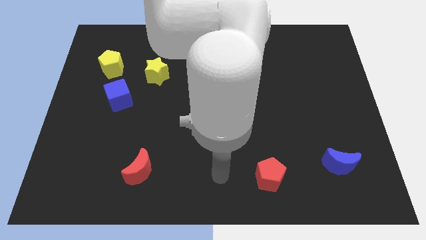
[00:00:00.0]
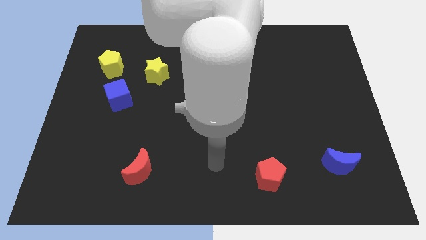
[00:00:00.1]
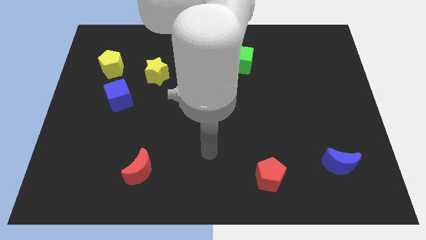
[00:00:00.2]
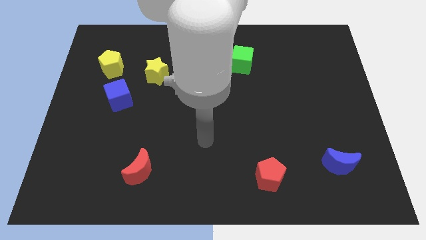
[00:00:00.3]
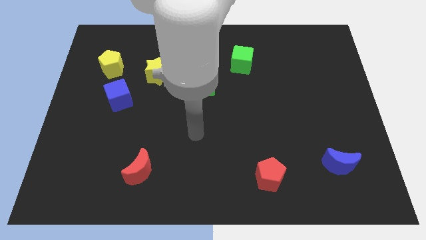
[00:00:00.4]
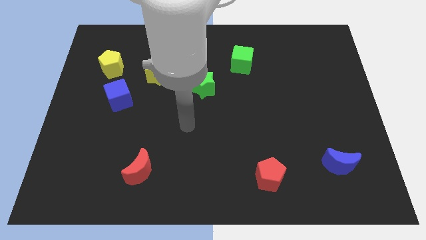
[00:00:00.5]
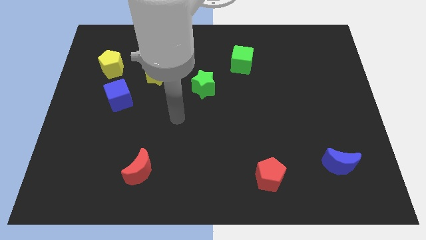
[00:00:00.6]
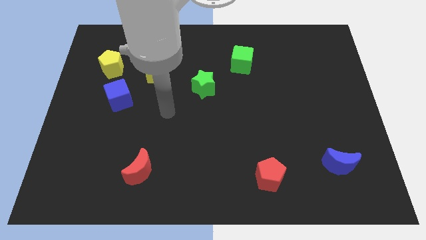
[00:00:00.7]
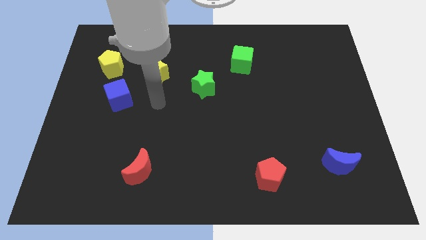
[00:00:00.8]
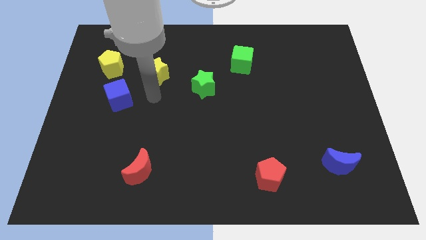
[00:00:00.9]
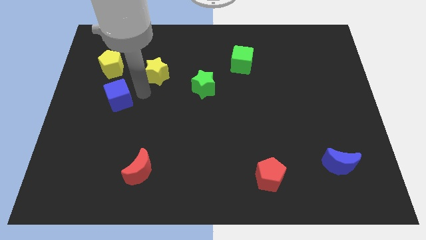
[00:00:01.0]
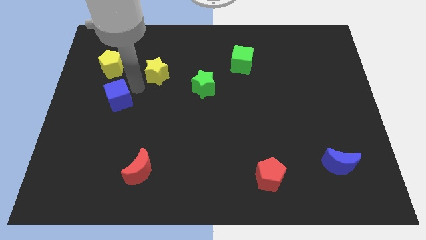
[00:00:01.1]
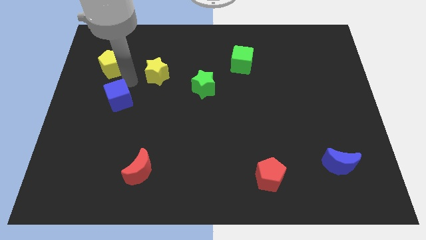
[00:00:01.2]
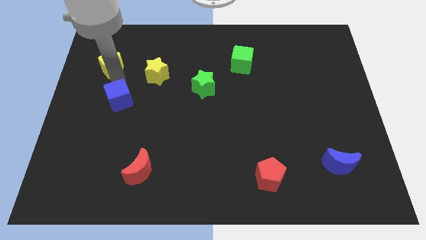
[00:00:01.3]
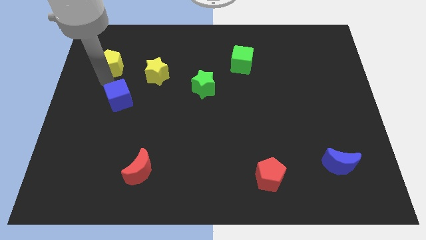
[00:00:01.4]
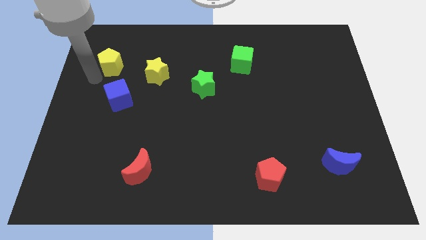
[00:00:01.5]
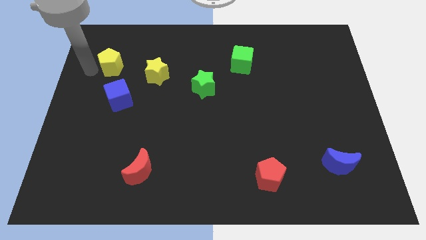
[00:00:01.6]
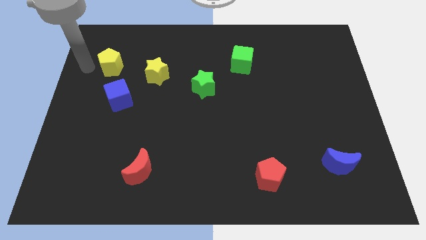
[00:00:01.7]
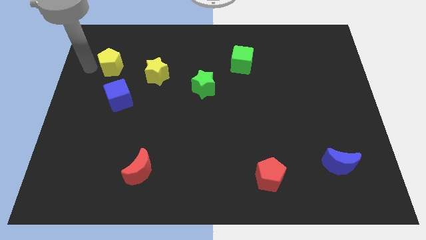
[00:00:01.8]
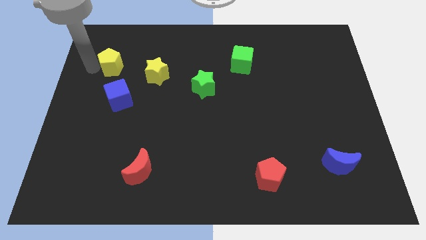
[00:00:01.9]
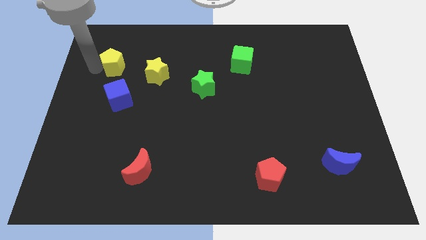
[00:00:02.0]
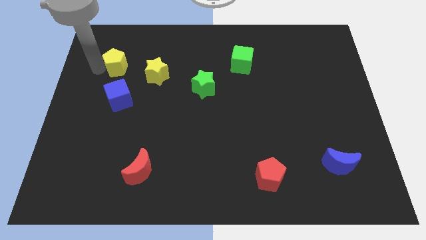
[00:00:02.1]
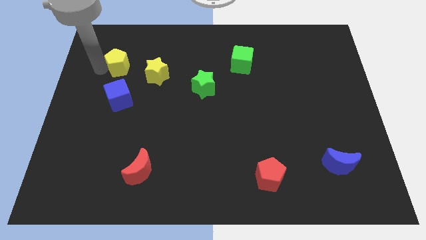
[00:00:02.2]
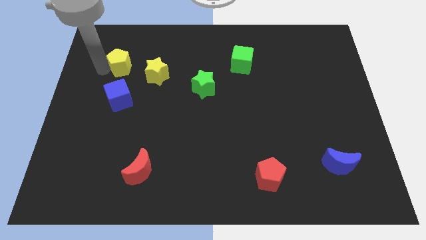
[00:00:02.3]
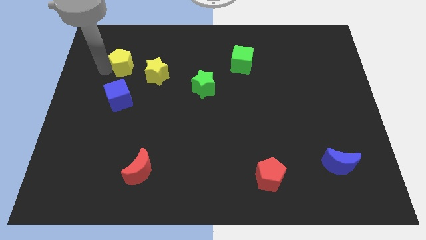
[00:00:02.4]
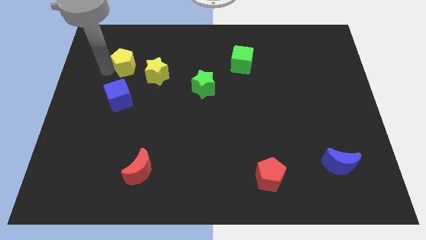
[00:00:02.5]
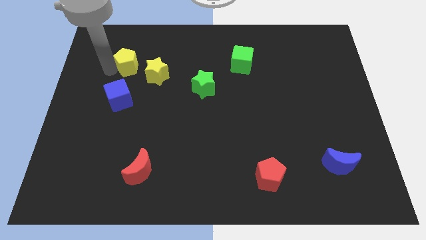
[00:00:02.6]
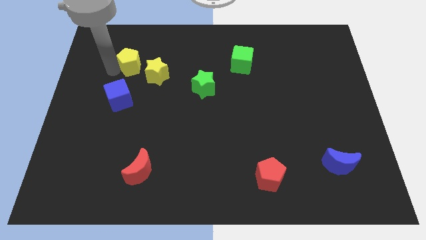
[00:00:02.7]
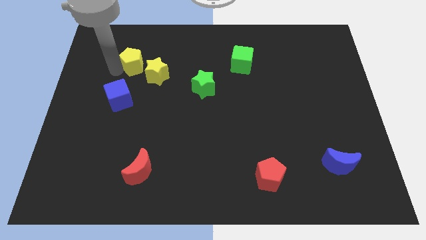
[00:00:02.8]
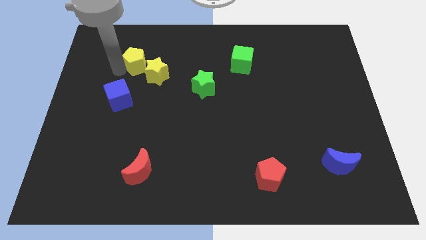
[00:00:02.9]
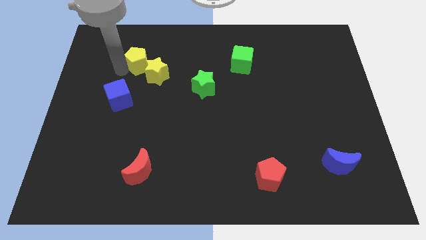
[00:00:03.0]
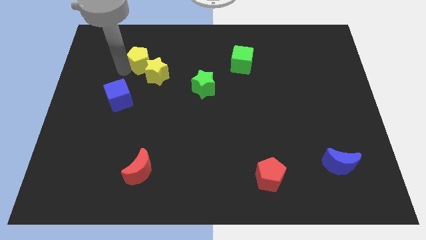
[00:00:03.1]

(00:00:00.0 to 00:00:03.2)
slide the yellow pentagon slightly to the right

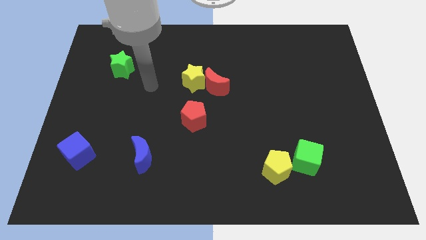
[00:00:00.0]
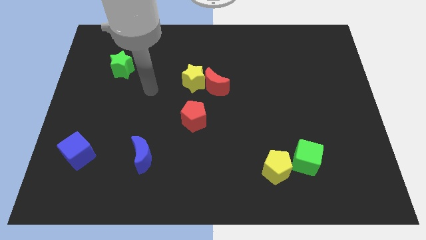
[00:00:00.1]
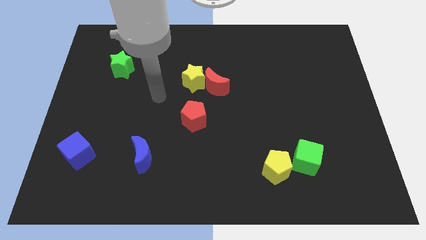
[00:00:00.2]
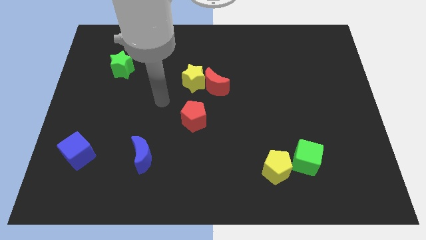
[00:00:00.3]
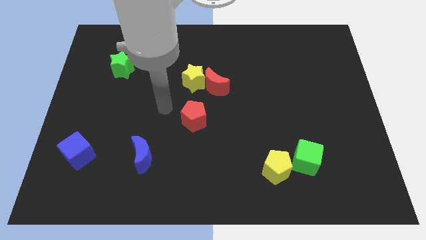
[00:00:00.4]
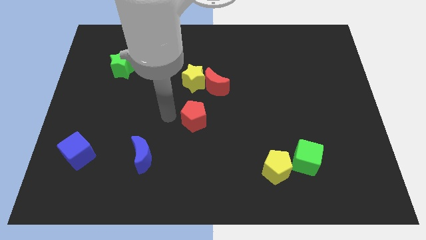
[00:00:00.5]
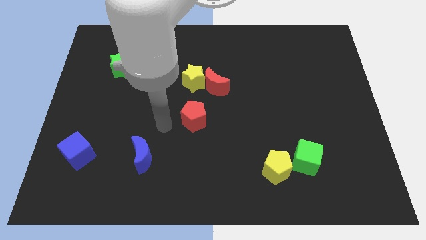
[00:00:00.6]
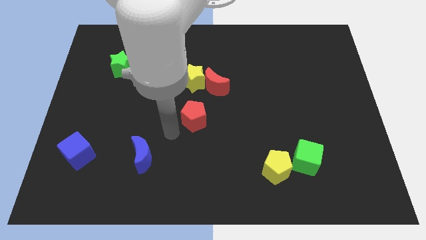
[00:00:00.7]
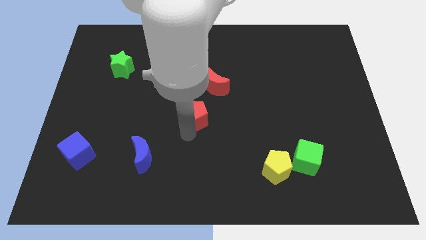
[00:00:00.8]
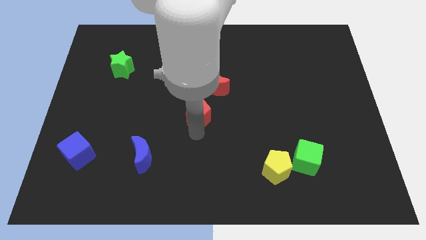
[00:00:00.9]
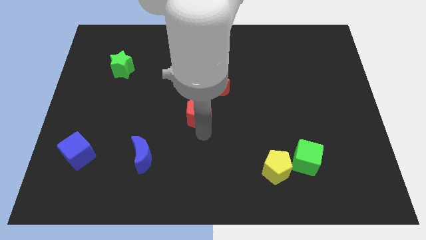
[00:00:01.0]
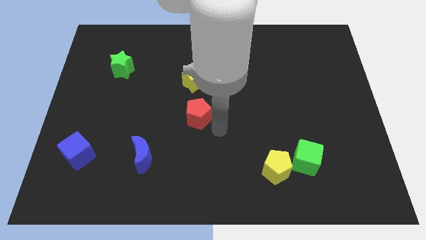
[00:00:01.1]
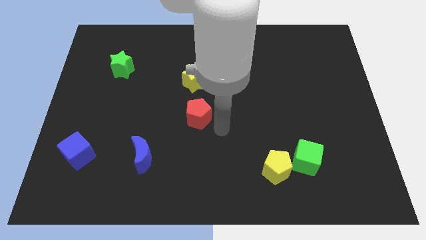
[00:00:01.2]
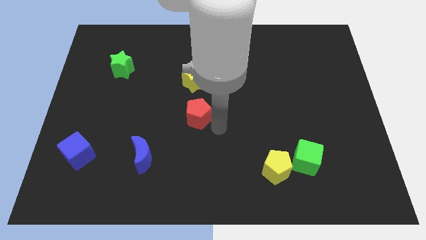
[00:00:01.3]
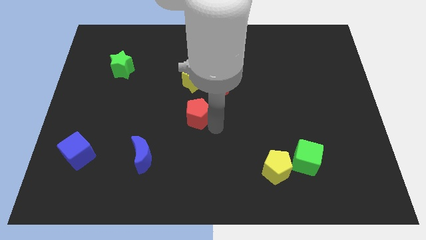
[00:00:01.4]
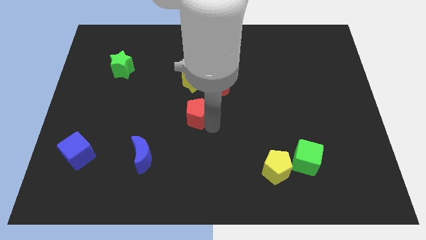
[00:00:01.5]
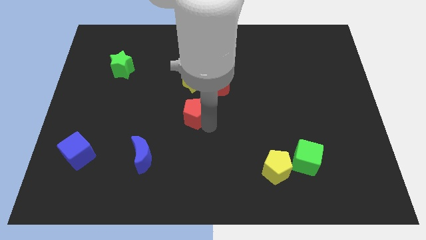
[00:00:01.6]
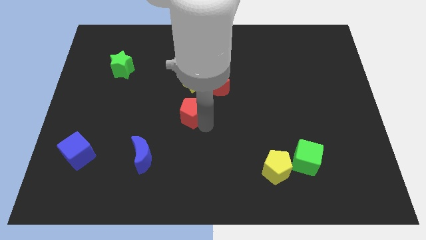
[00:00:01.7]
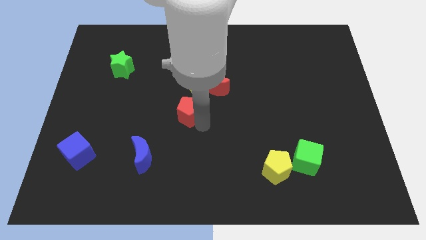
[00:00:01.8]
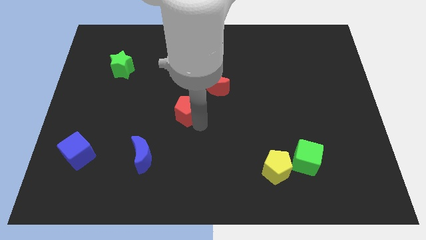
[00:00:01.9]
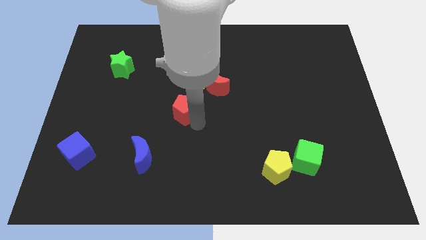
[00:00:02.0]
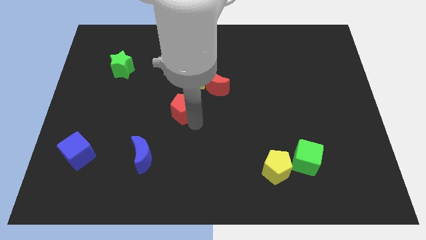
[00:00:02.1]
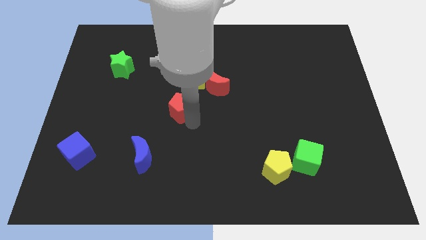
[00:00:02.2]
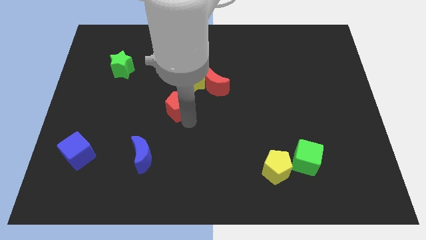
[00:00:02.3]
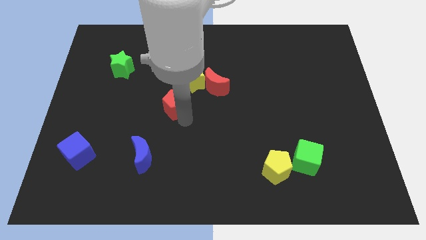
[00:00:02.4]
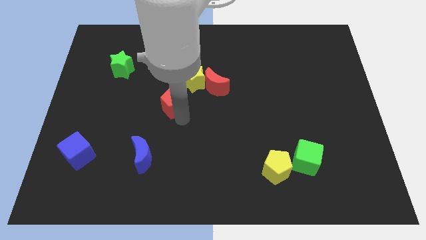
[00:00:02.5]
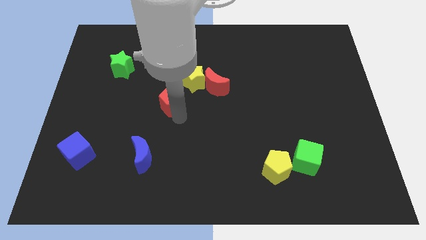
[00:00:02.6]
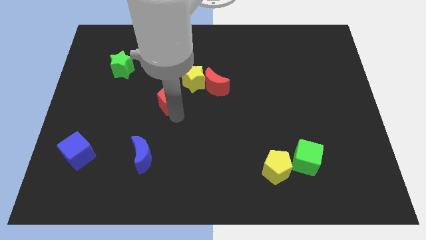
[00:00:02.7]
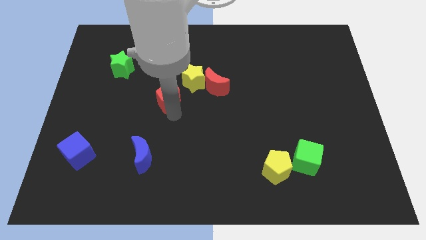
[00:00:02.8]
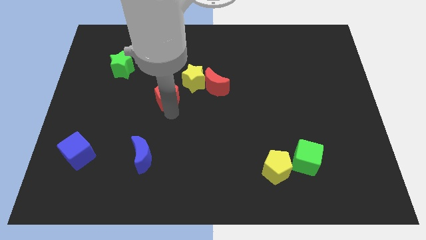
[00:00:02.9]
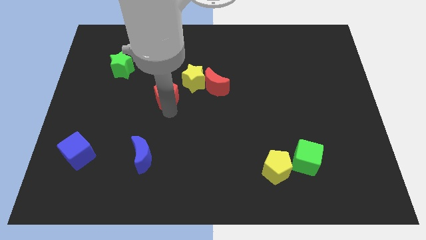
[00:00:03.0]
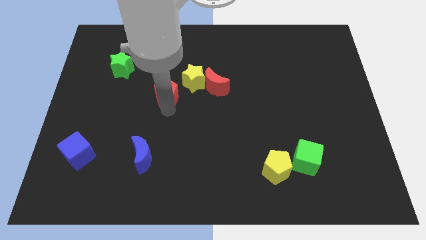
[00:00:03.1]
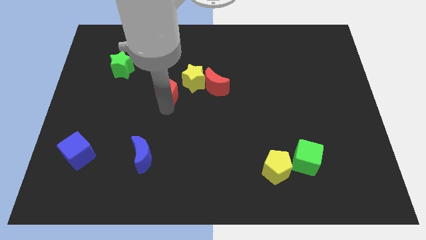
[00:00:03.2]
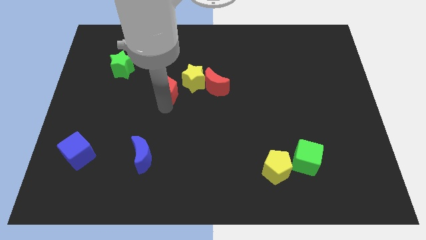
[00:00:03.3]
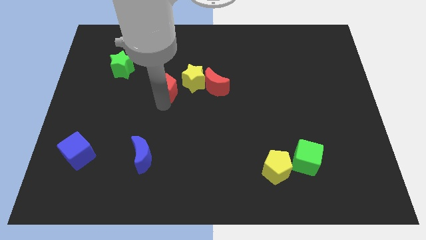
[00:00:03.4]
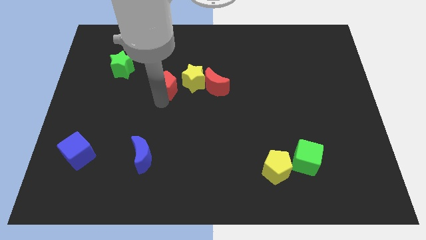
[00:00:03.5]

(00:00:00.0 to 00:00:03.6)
slightly slide the red pentagon up

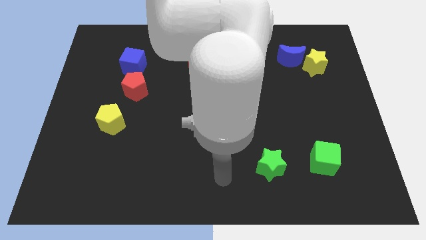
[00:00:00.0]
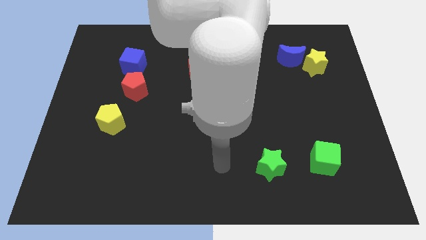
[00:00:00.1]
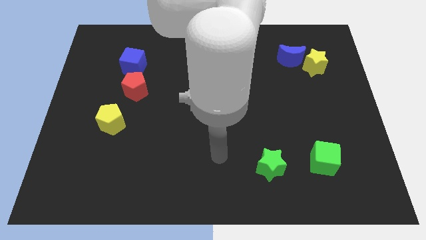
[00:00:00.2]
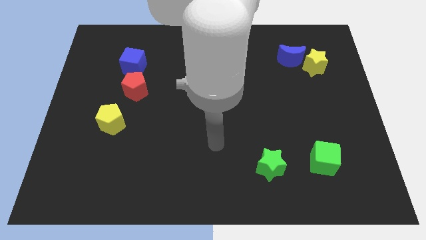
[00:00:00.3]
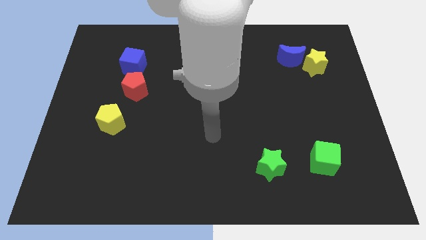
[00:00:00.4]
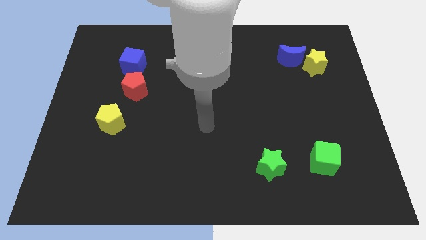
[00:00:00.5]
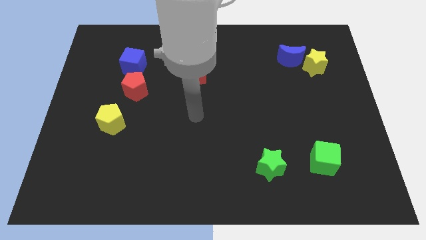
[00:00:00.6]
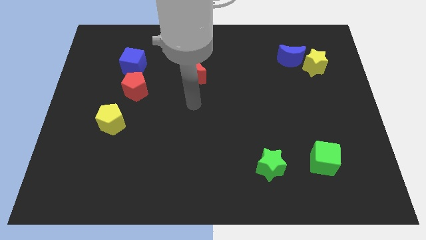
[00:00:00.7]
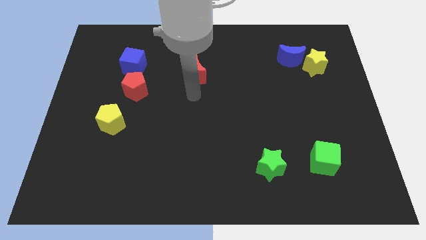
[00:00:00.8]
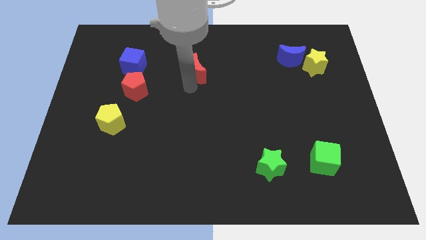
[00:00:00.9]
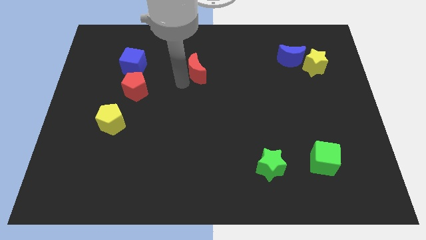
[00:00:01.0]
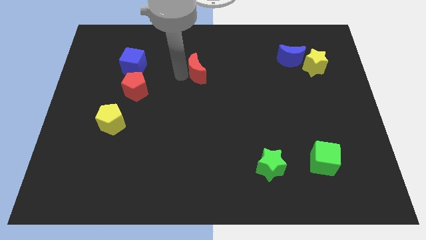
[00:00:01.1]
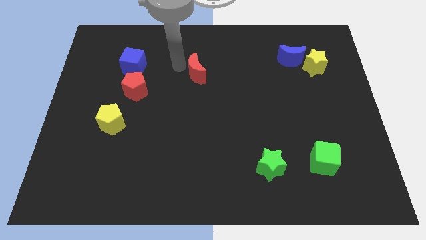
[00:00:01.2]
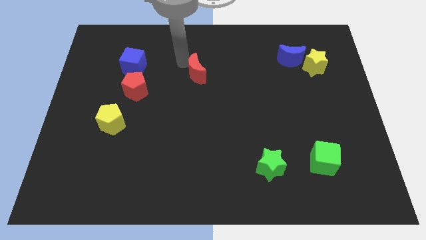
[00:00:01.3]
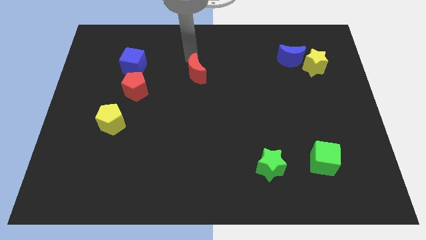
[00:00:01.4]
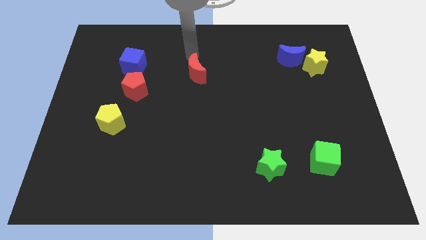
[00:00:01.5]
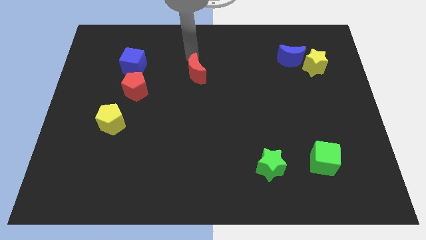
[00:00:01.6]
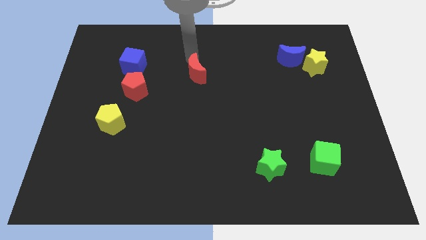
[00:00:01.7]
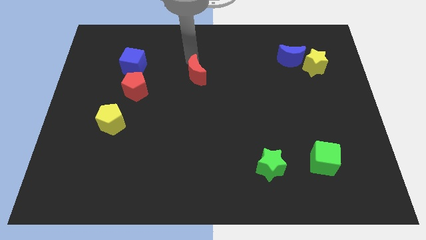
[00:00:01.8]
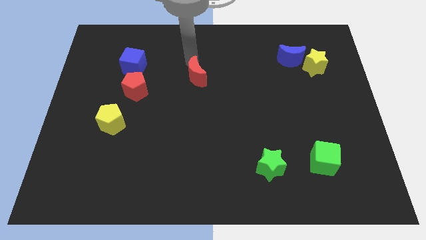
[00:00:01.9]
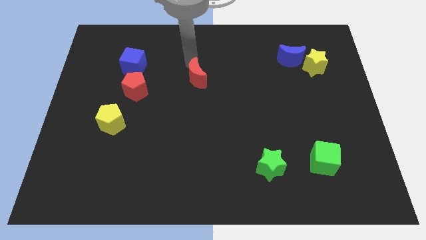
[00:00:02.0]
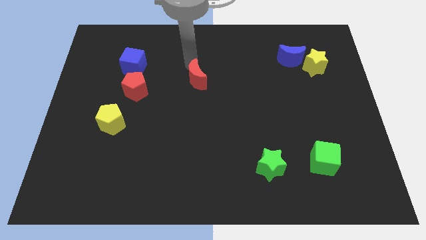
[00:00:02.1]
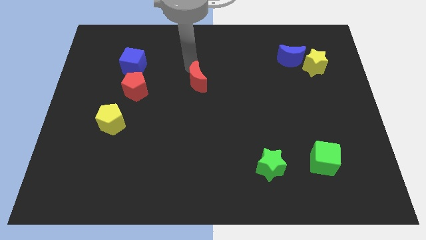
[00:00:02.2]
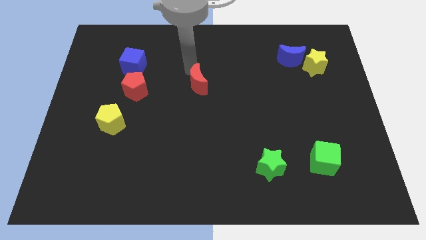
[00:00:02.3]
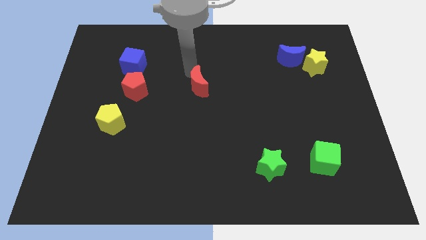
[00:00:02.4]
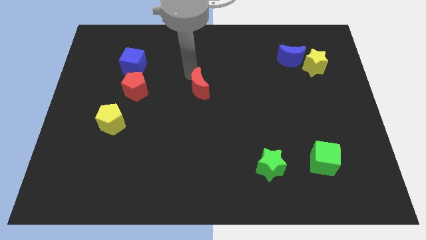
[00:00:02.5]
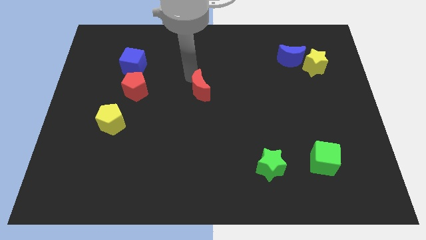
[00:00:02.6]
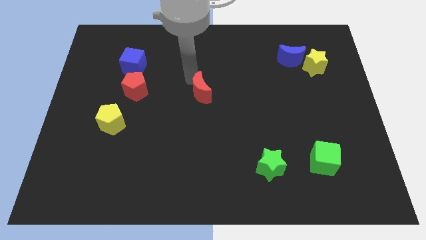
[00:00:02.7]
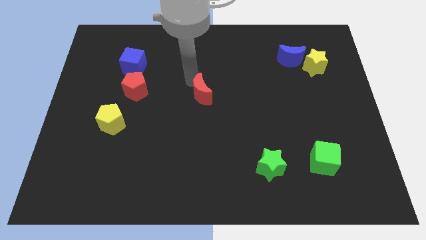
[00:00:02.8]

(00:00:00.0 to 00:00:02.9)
push the red moon somewhat downwards
